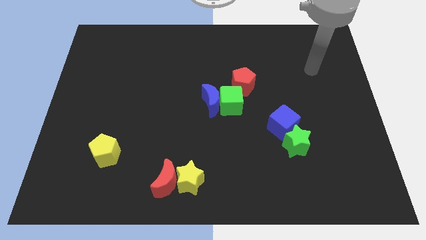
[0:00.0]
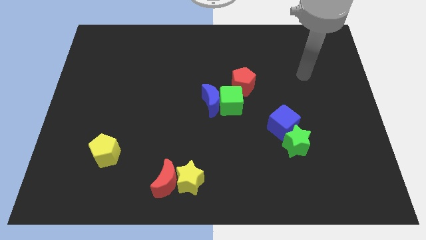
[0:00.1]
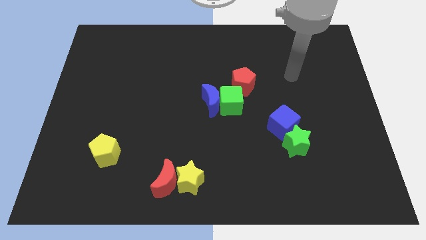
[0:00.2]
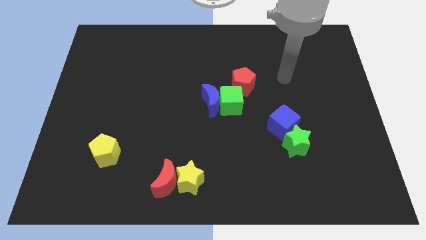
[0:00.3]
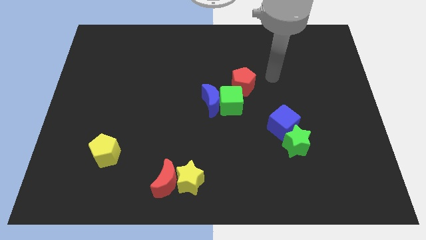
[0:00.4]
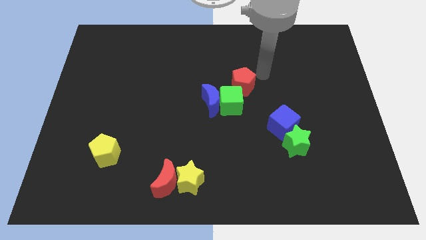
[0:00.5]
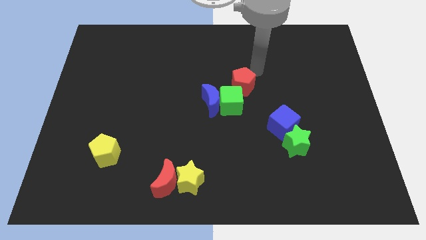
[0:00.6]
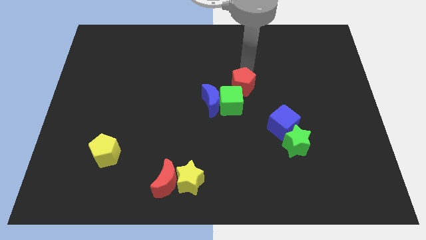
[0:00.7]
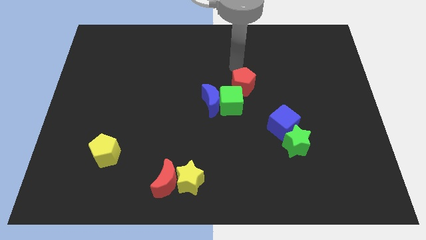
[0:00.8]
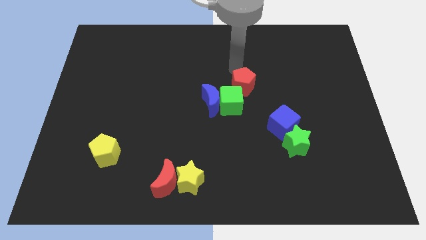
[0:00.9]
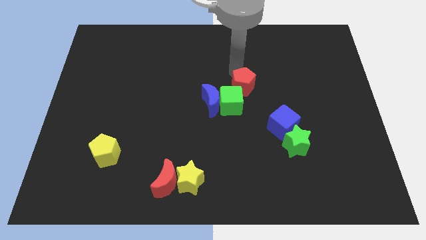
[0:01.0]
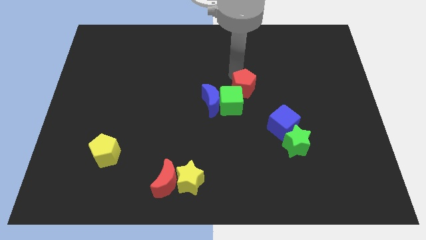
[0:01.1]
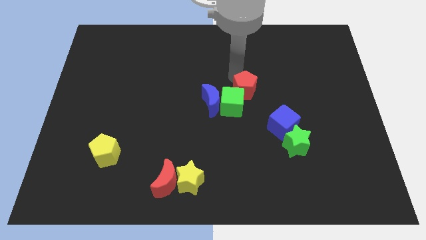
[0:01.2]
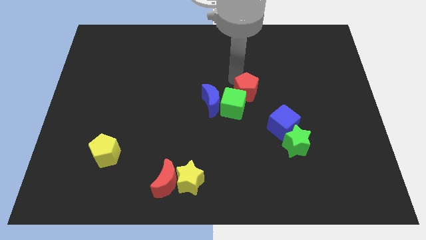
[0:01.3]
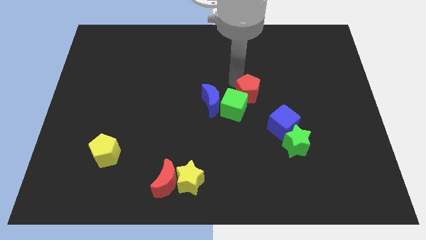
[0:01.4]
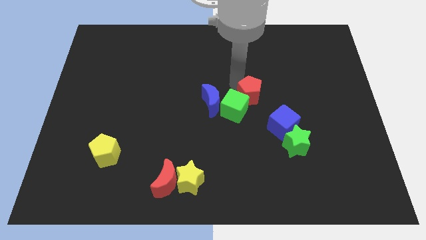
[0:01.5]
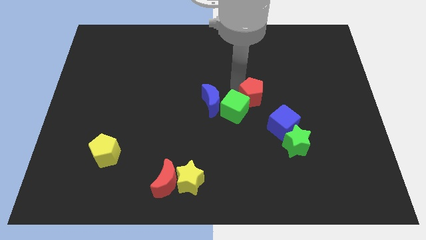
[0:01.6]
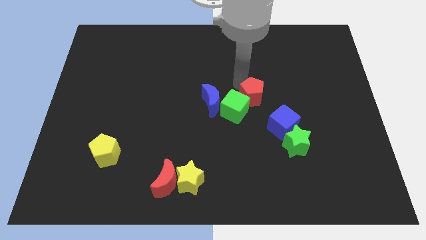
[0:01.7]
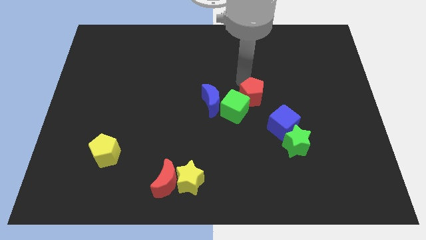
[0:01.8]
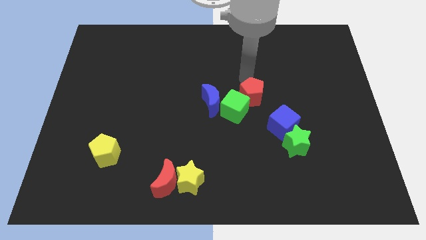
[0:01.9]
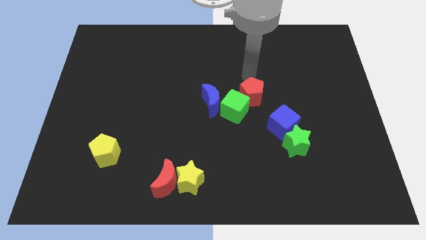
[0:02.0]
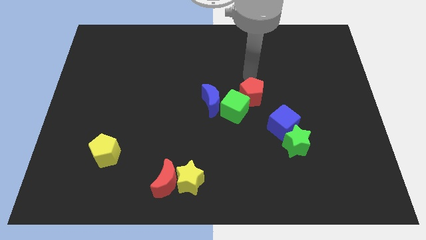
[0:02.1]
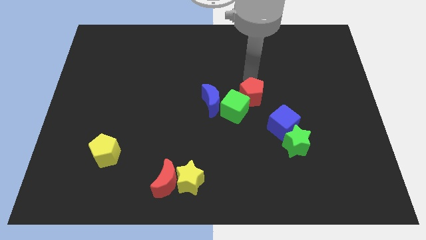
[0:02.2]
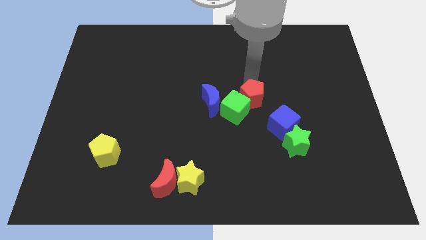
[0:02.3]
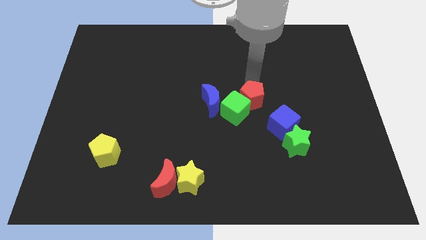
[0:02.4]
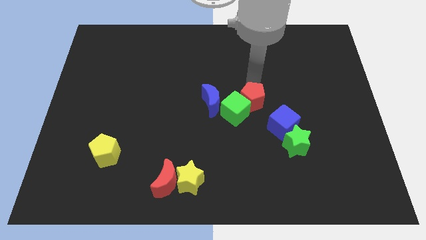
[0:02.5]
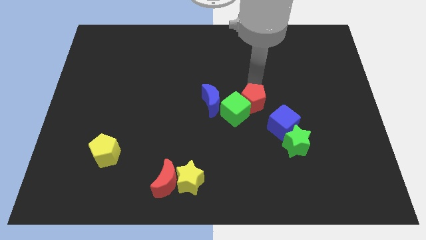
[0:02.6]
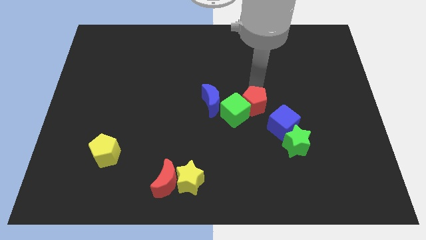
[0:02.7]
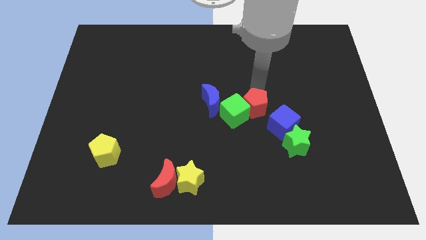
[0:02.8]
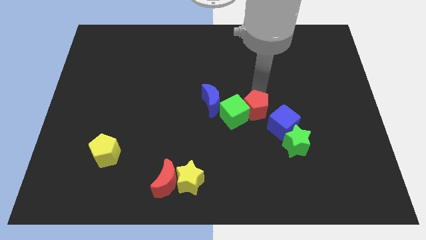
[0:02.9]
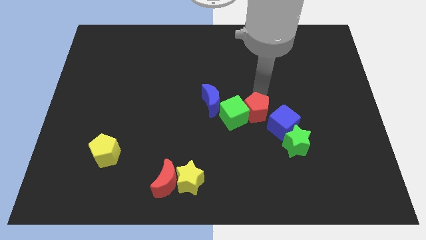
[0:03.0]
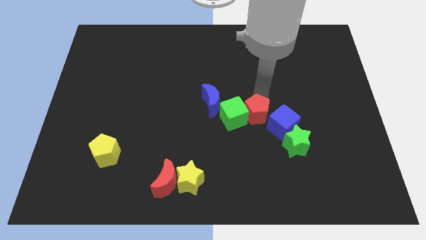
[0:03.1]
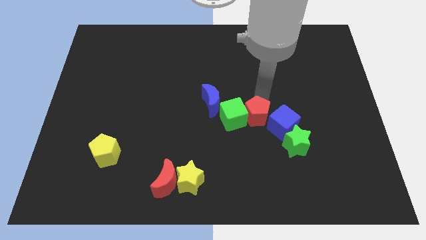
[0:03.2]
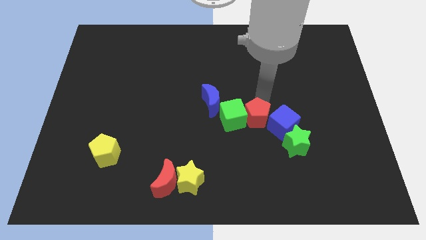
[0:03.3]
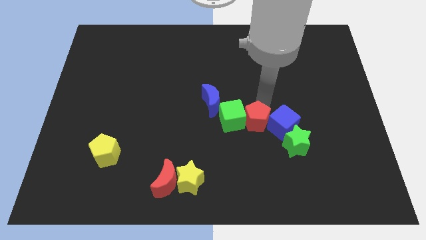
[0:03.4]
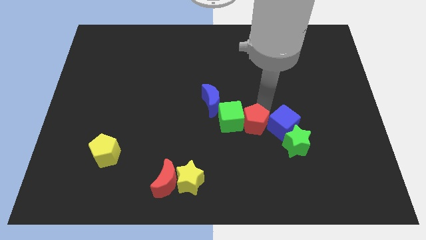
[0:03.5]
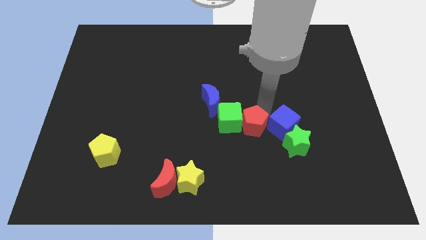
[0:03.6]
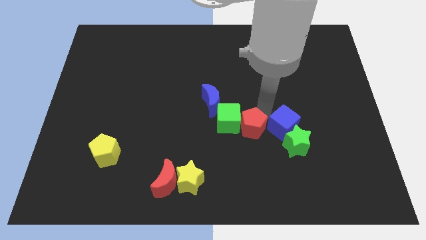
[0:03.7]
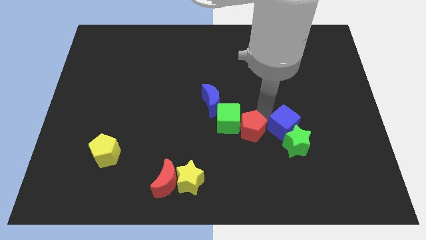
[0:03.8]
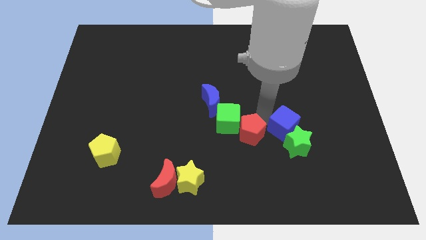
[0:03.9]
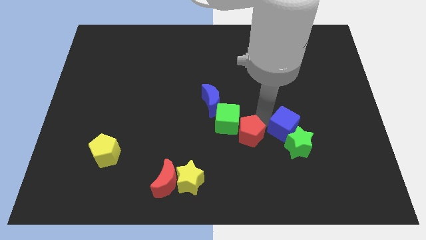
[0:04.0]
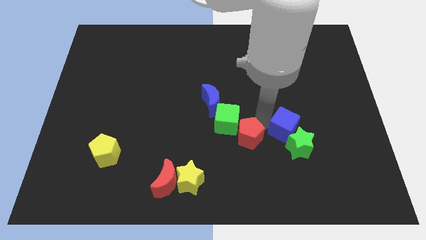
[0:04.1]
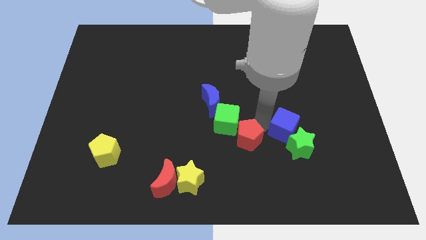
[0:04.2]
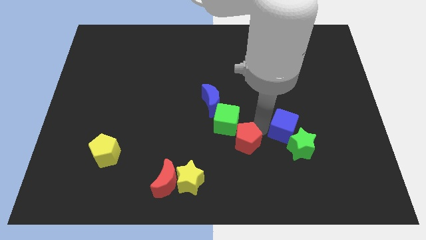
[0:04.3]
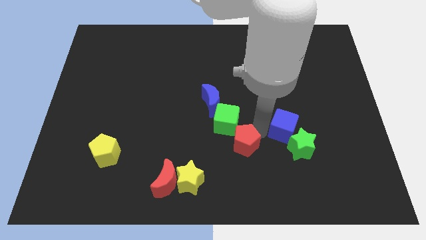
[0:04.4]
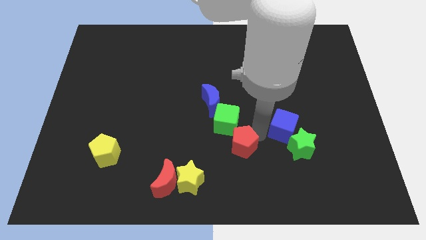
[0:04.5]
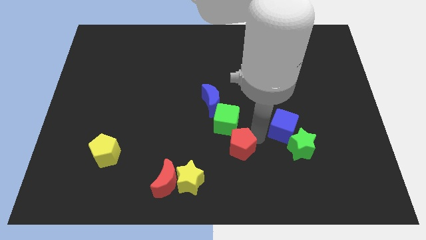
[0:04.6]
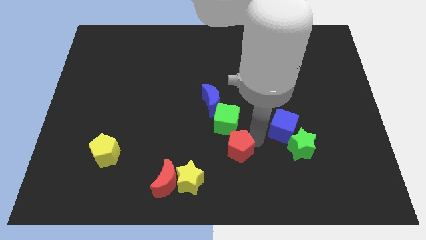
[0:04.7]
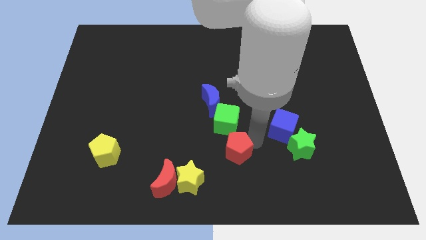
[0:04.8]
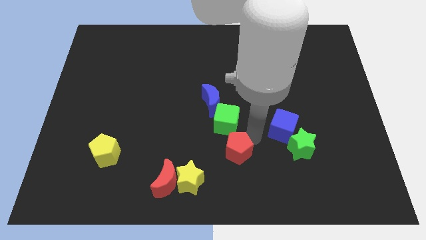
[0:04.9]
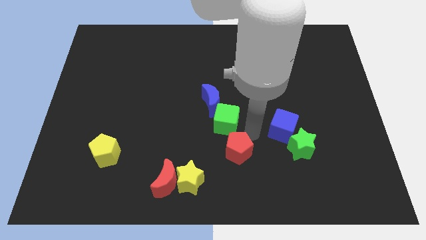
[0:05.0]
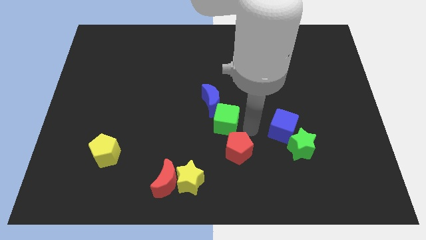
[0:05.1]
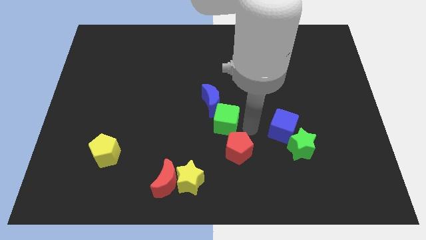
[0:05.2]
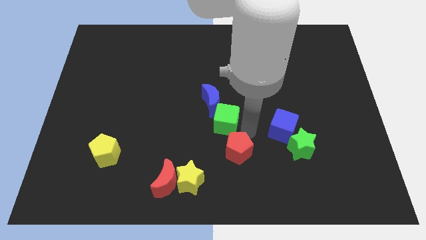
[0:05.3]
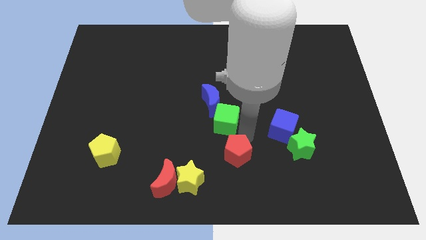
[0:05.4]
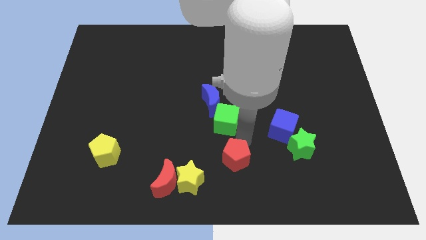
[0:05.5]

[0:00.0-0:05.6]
move the red pentagon to the bottom

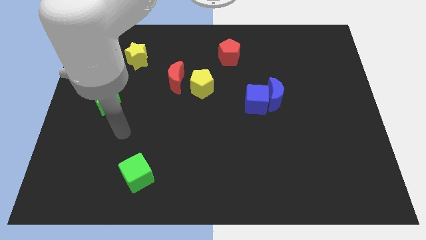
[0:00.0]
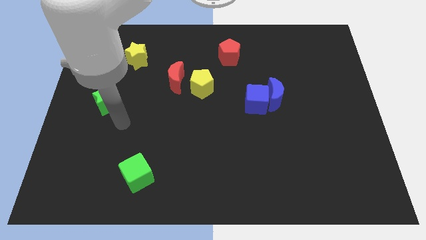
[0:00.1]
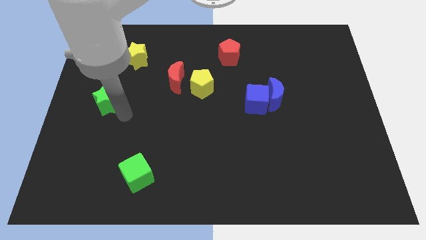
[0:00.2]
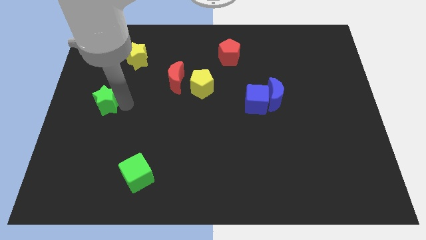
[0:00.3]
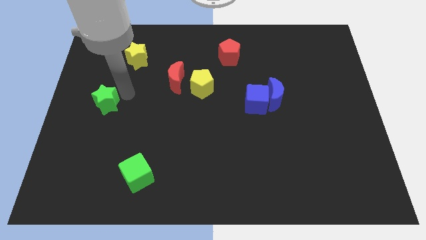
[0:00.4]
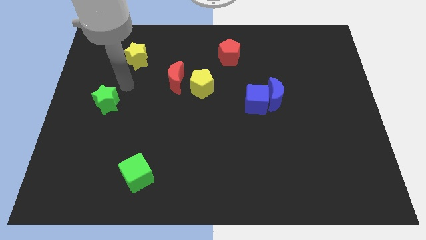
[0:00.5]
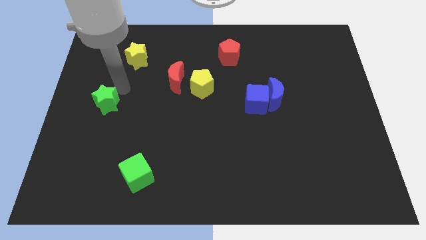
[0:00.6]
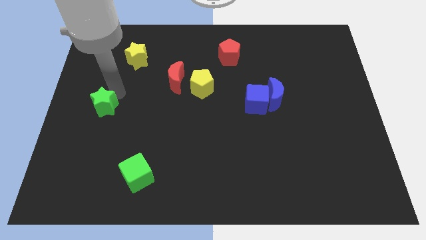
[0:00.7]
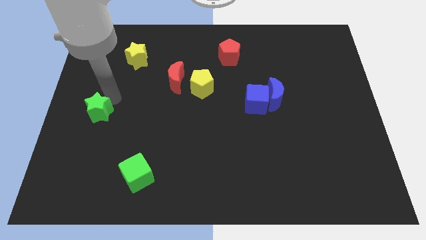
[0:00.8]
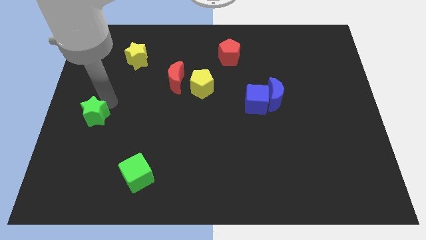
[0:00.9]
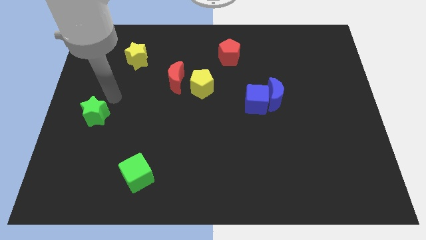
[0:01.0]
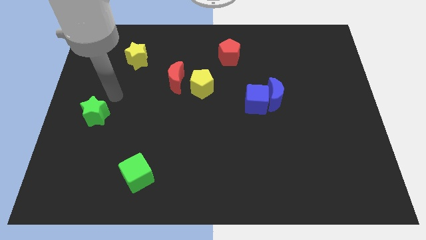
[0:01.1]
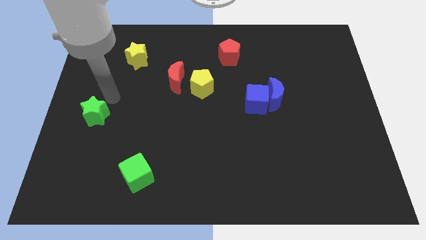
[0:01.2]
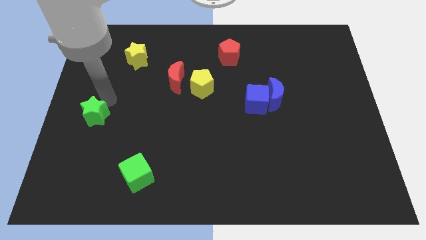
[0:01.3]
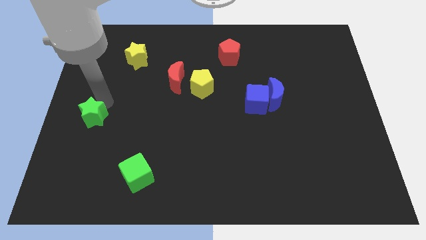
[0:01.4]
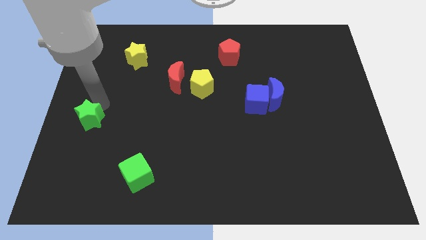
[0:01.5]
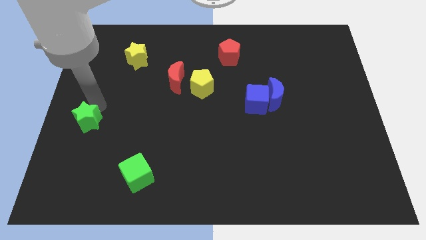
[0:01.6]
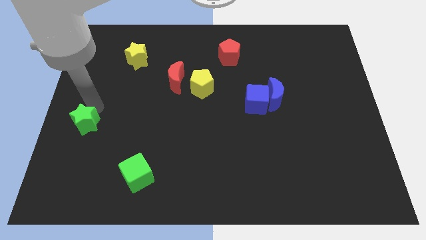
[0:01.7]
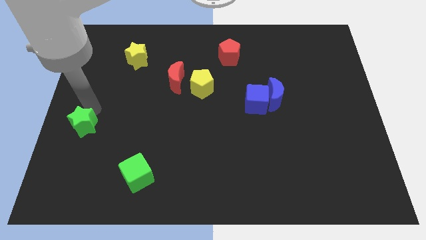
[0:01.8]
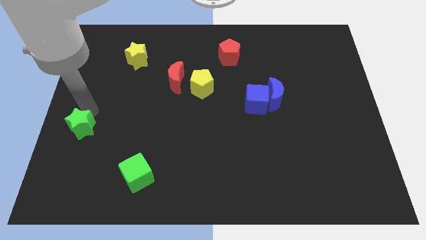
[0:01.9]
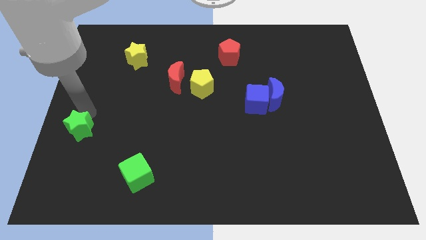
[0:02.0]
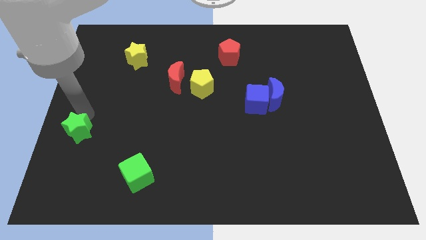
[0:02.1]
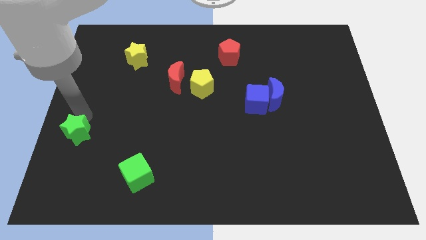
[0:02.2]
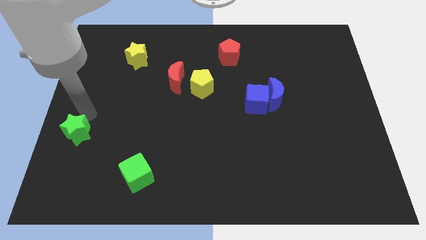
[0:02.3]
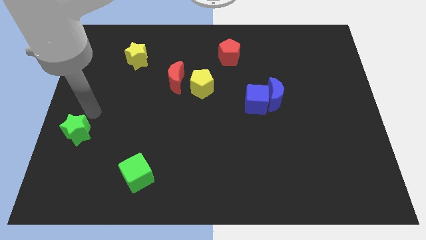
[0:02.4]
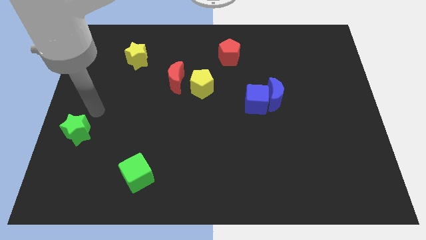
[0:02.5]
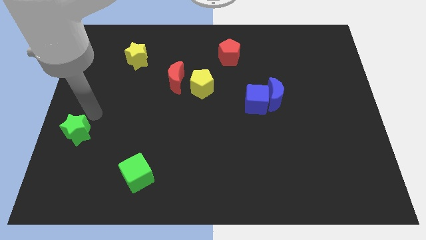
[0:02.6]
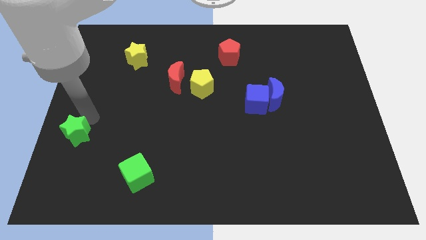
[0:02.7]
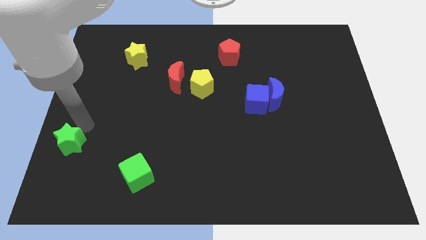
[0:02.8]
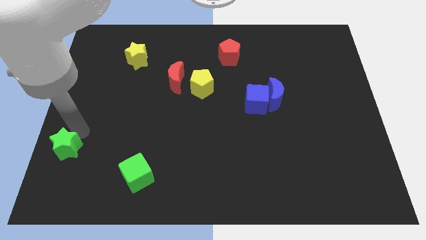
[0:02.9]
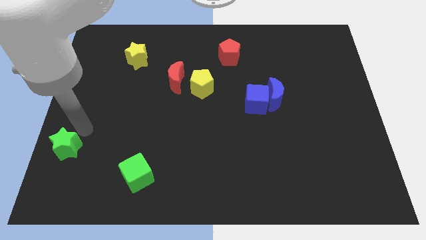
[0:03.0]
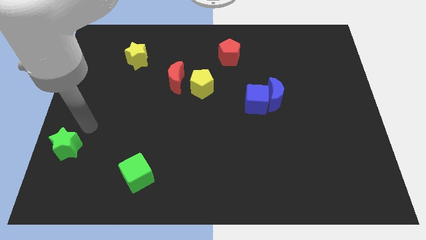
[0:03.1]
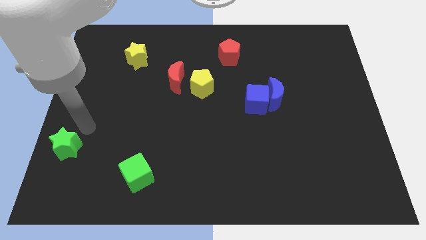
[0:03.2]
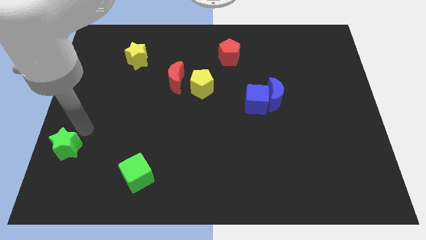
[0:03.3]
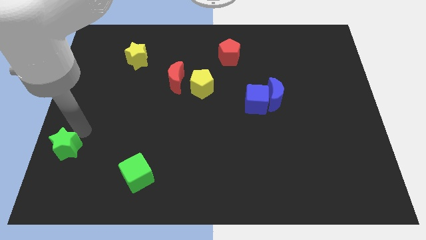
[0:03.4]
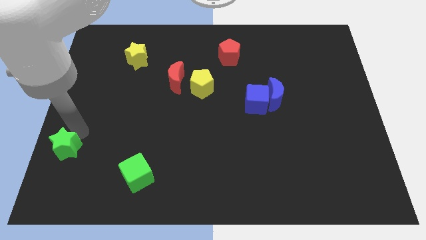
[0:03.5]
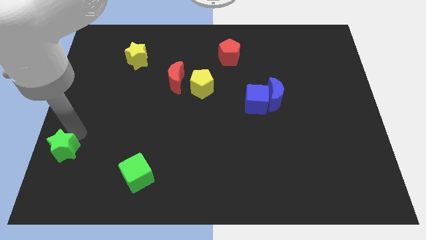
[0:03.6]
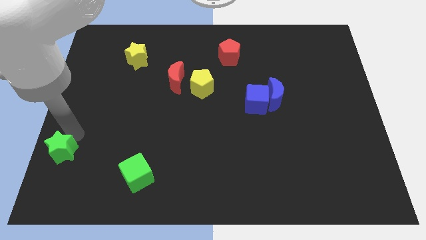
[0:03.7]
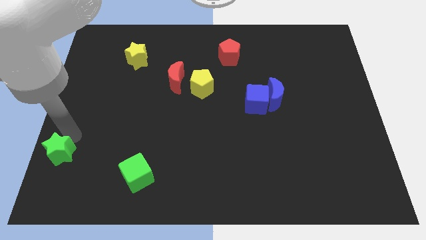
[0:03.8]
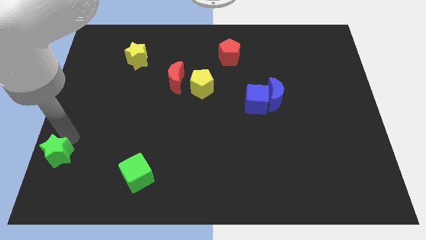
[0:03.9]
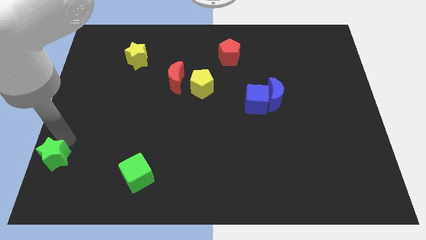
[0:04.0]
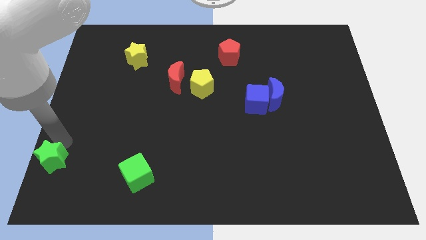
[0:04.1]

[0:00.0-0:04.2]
put the green star to the bottom left corner
